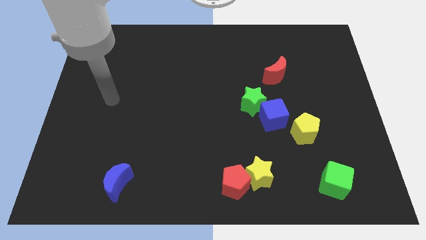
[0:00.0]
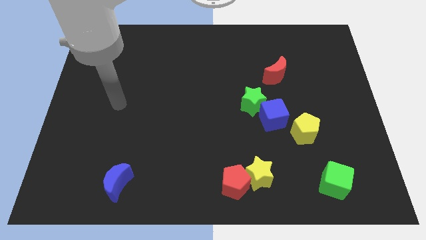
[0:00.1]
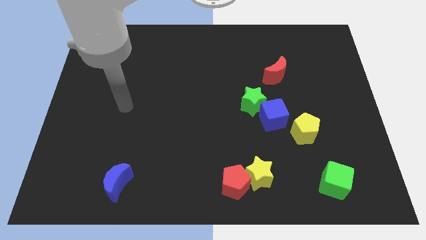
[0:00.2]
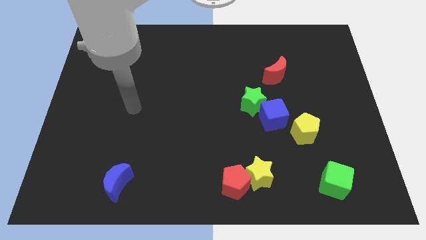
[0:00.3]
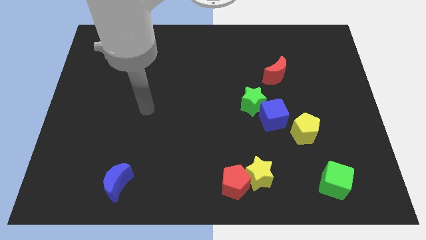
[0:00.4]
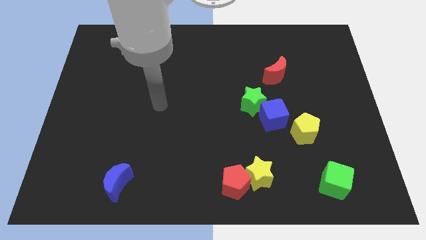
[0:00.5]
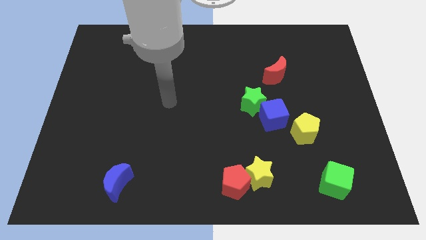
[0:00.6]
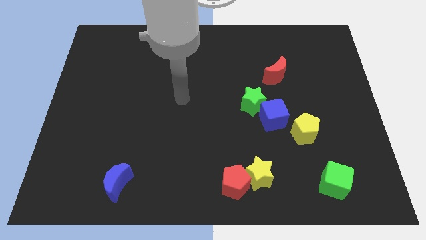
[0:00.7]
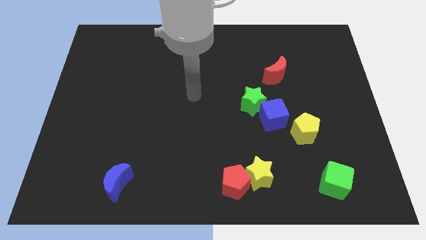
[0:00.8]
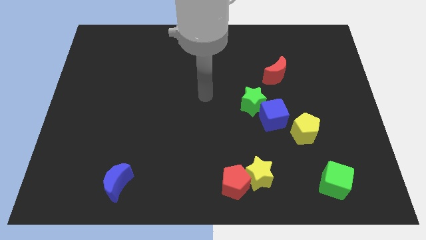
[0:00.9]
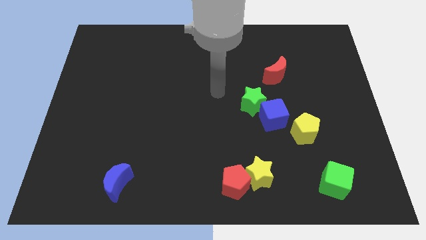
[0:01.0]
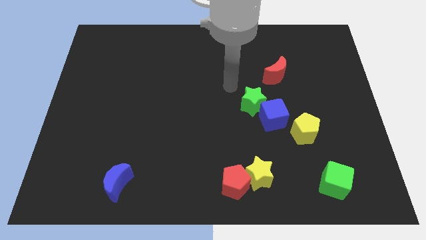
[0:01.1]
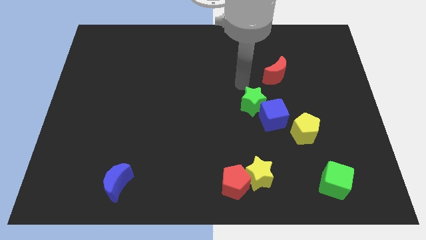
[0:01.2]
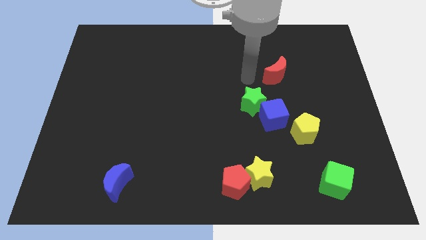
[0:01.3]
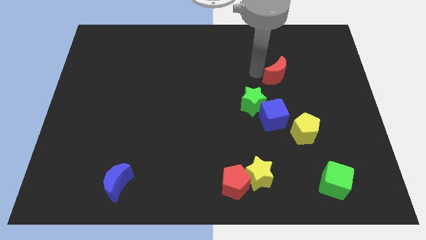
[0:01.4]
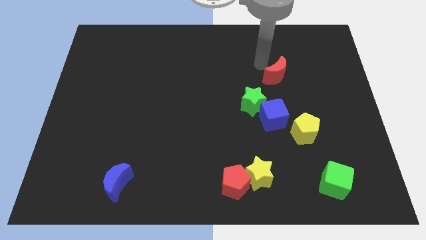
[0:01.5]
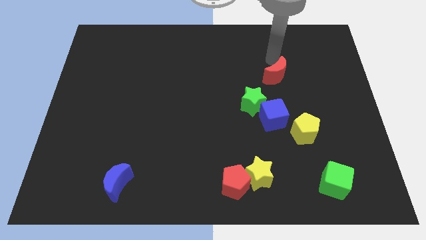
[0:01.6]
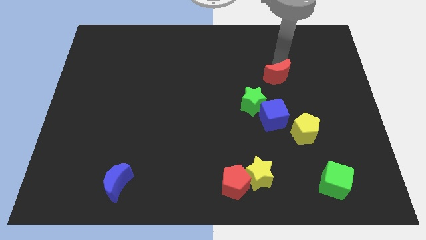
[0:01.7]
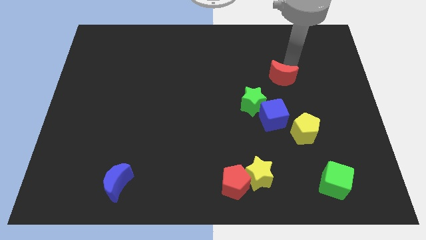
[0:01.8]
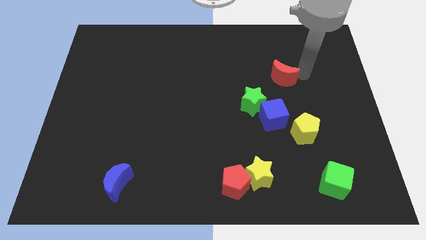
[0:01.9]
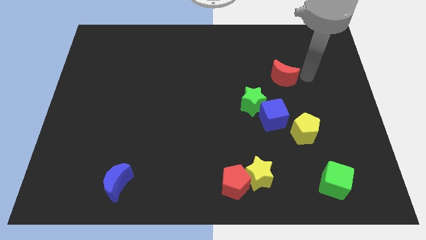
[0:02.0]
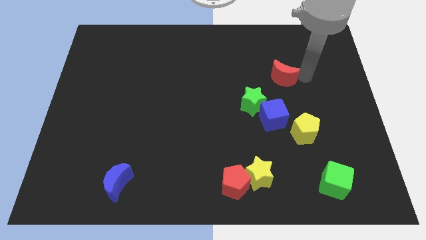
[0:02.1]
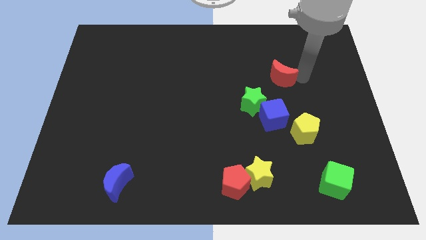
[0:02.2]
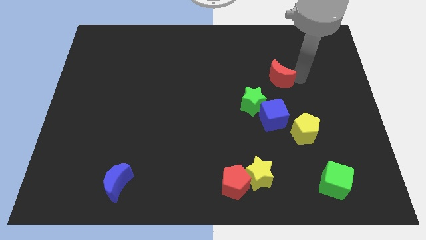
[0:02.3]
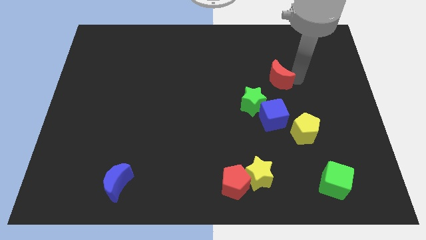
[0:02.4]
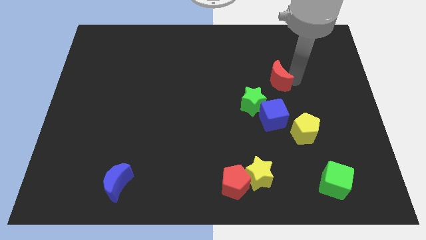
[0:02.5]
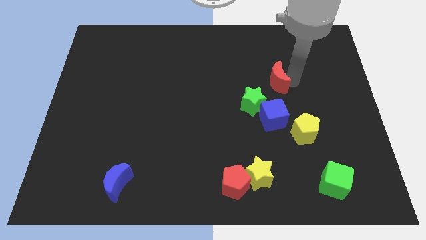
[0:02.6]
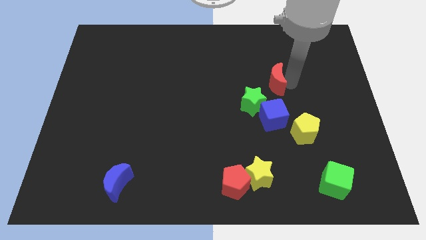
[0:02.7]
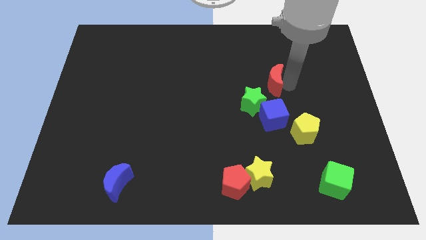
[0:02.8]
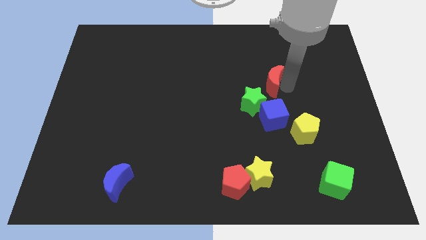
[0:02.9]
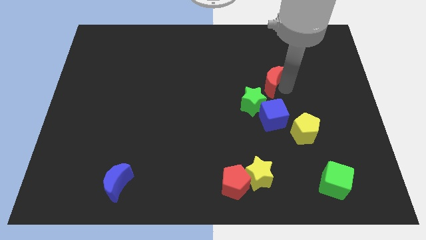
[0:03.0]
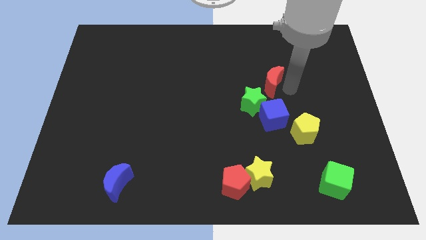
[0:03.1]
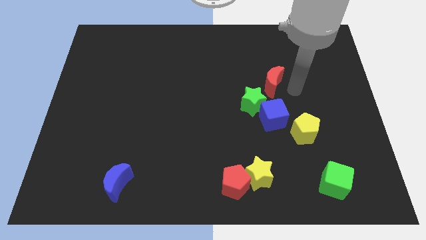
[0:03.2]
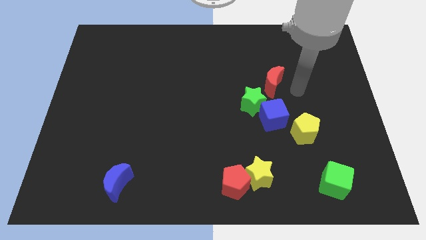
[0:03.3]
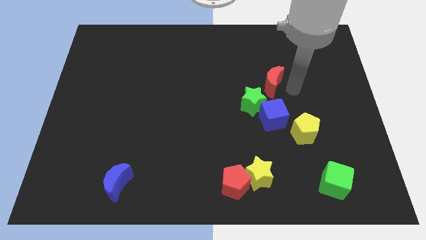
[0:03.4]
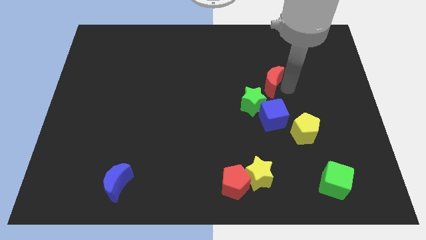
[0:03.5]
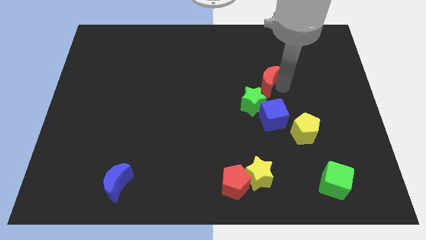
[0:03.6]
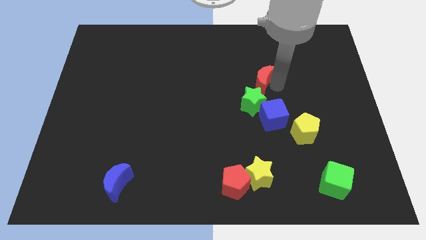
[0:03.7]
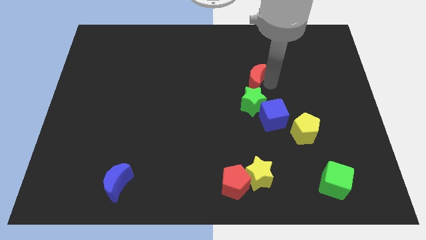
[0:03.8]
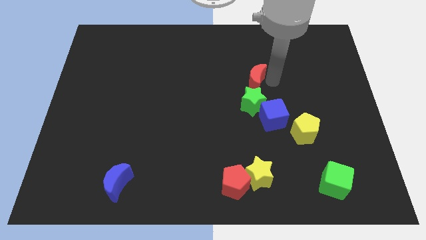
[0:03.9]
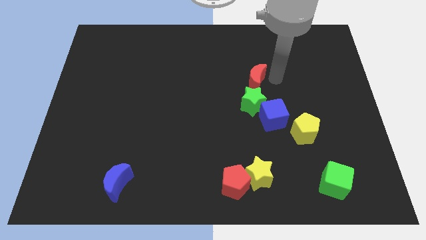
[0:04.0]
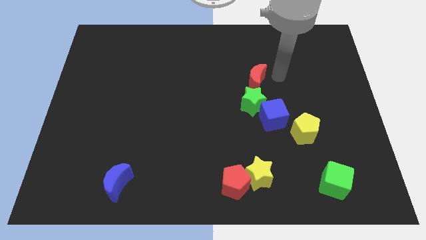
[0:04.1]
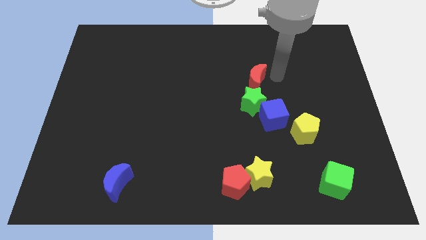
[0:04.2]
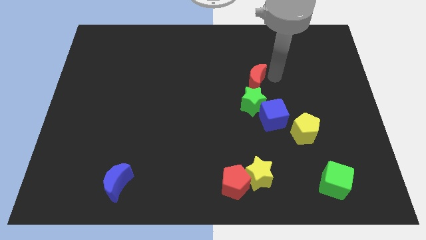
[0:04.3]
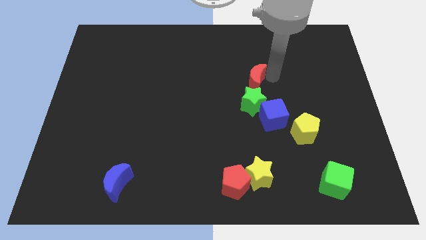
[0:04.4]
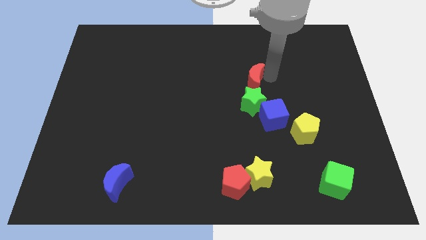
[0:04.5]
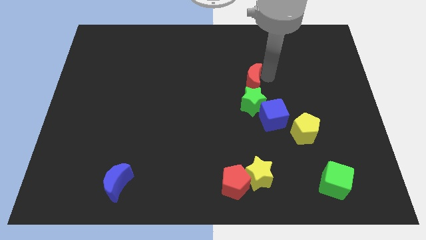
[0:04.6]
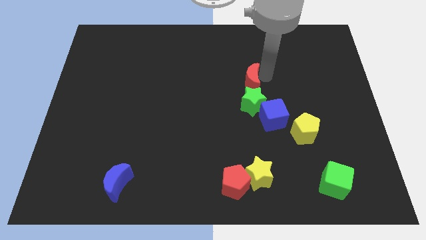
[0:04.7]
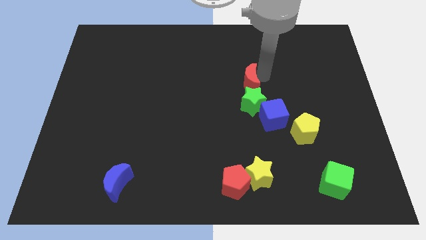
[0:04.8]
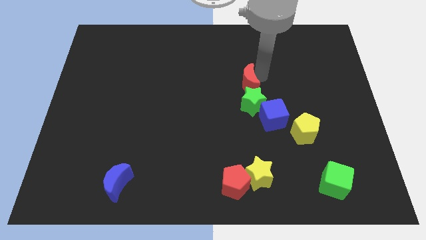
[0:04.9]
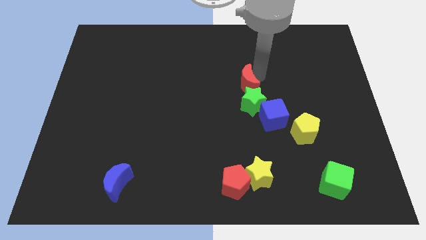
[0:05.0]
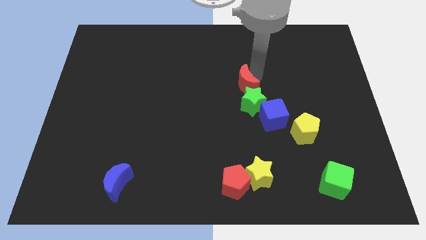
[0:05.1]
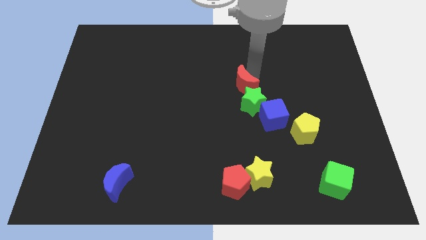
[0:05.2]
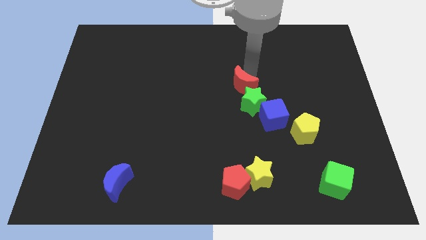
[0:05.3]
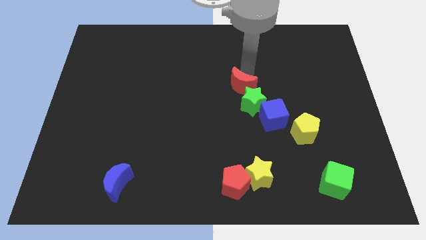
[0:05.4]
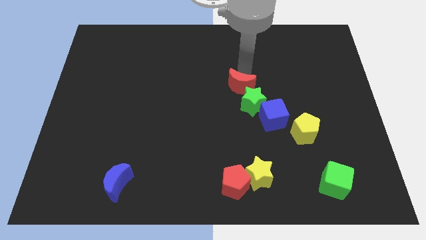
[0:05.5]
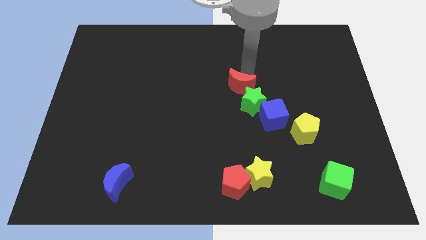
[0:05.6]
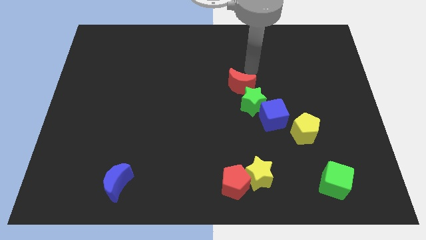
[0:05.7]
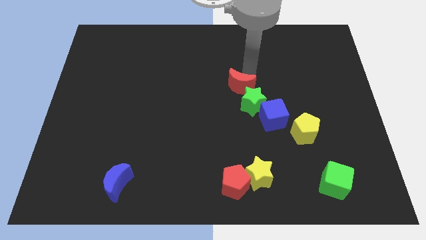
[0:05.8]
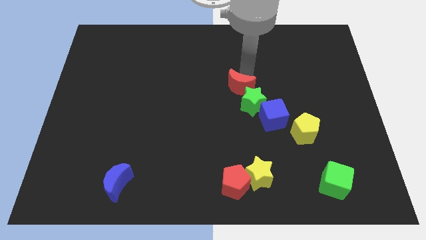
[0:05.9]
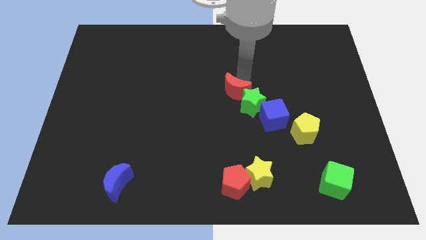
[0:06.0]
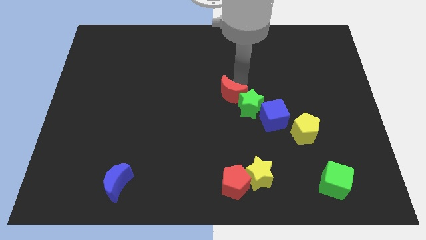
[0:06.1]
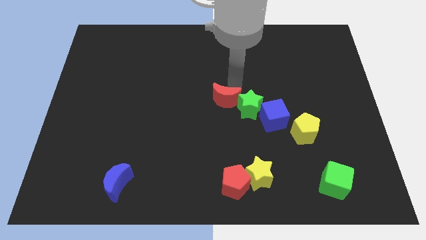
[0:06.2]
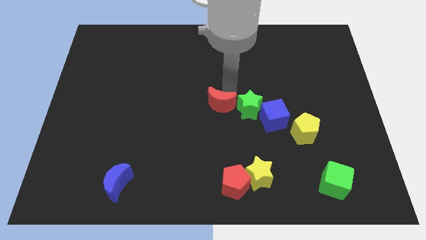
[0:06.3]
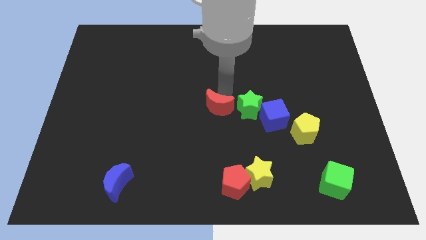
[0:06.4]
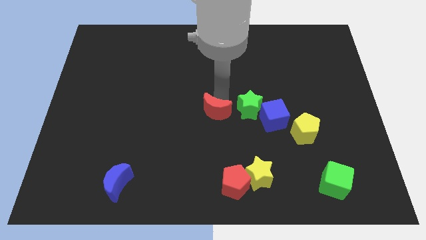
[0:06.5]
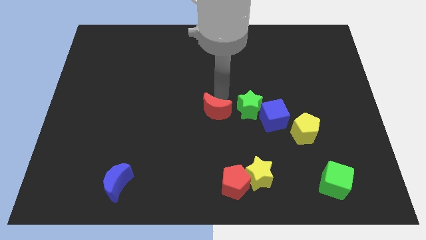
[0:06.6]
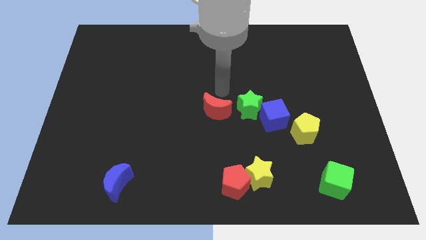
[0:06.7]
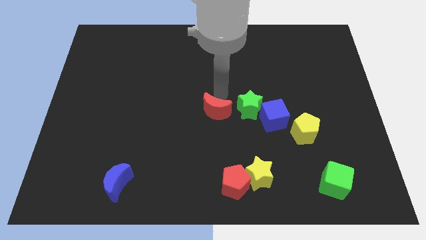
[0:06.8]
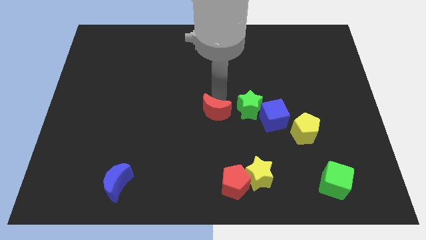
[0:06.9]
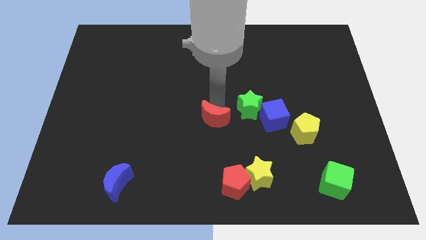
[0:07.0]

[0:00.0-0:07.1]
move the red moon down and to the left diagonally

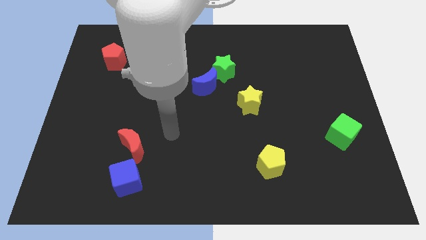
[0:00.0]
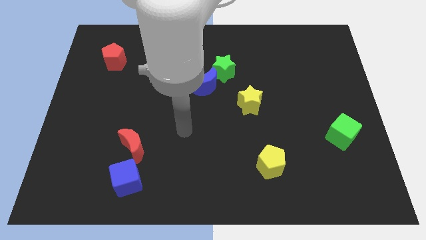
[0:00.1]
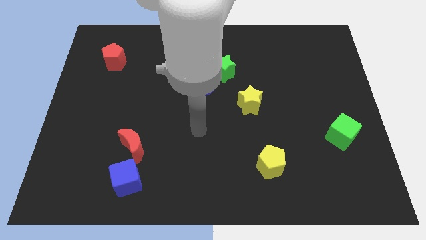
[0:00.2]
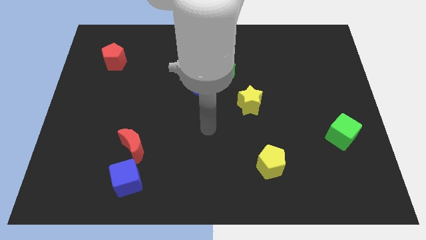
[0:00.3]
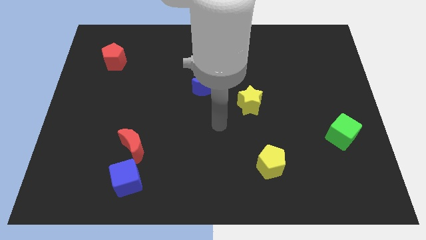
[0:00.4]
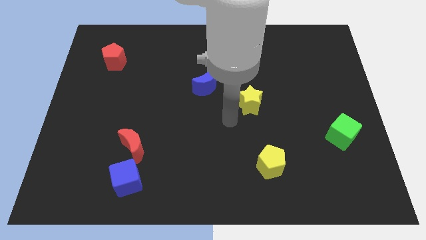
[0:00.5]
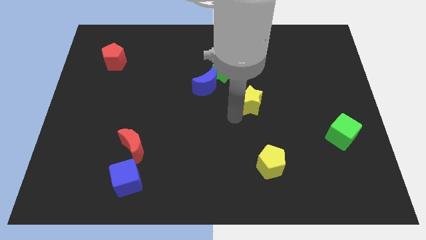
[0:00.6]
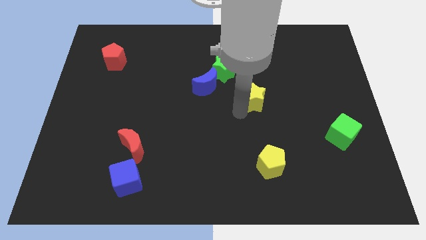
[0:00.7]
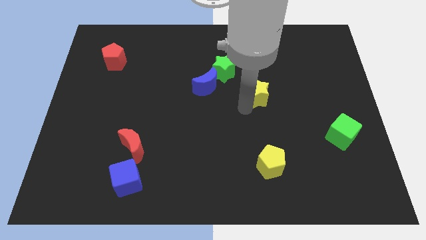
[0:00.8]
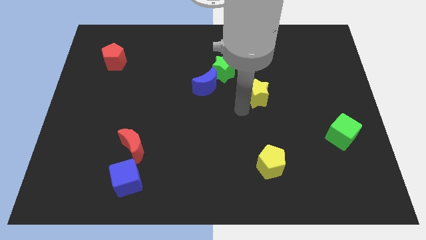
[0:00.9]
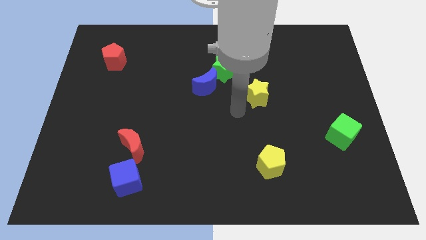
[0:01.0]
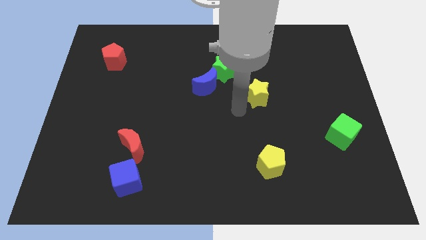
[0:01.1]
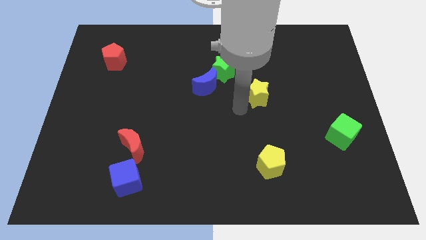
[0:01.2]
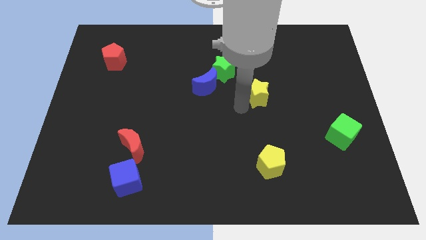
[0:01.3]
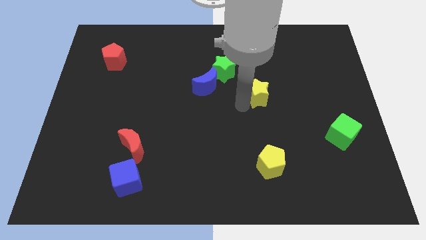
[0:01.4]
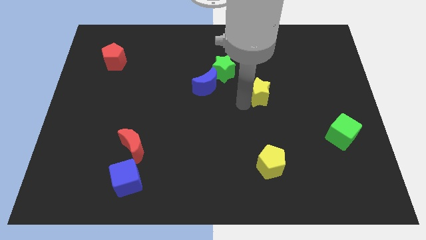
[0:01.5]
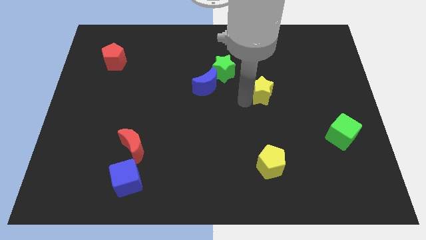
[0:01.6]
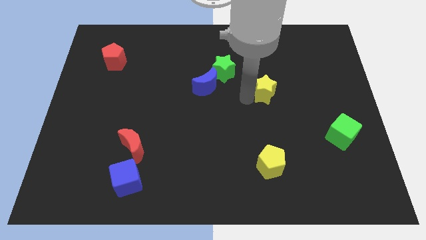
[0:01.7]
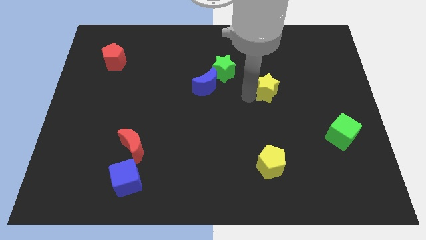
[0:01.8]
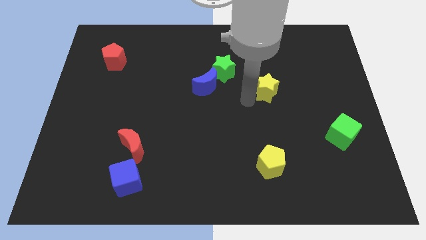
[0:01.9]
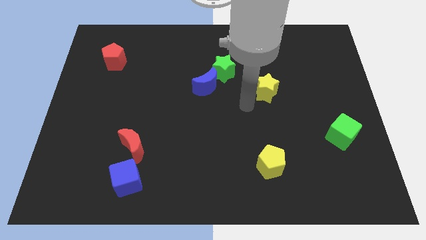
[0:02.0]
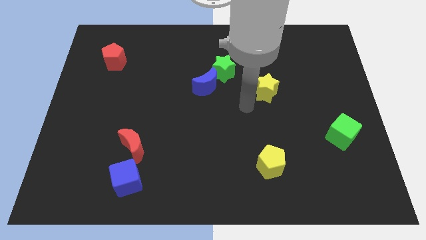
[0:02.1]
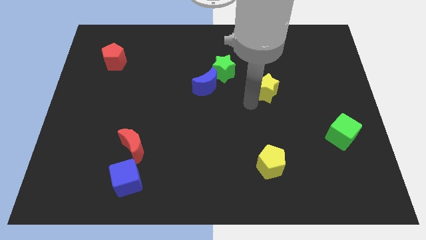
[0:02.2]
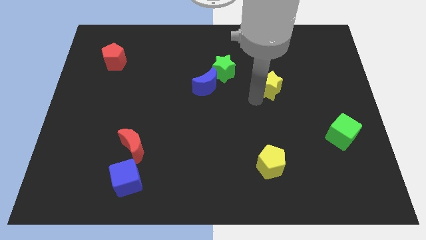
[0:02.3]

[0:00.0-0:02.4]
slightly push the yellow star upwards and right diagonally
